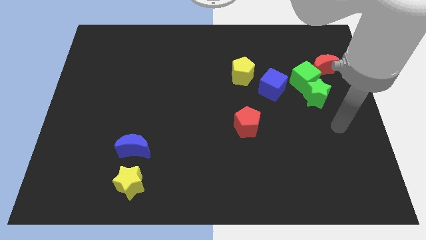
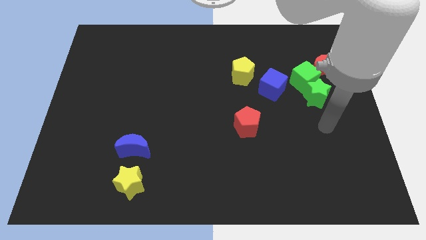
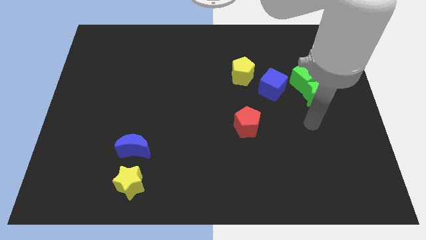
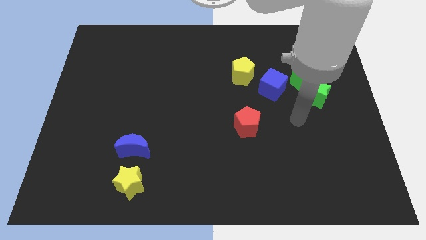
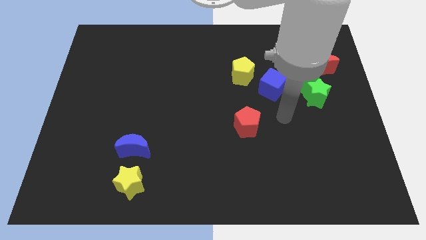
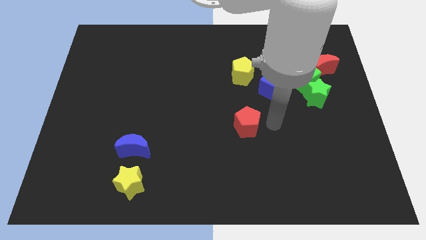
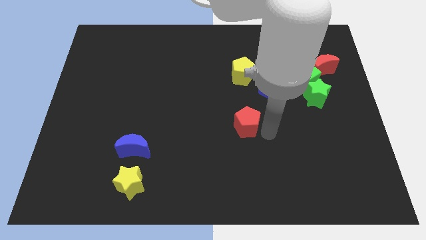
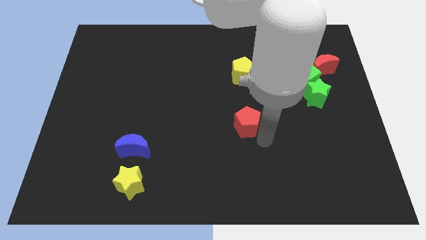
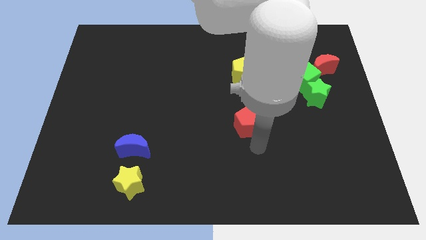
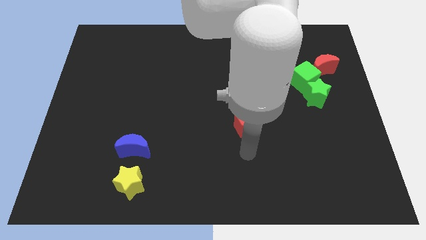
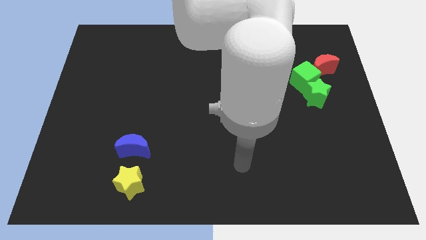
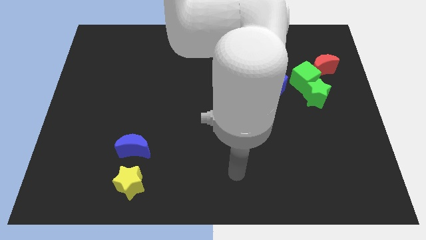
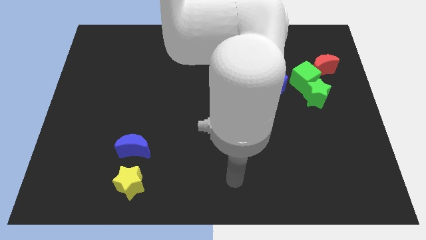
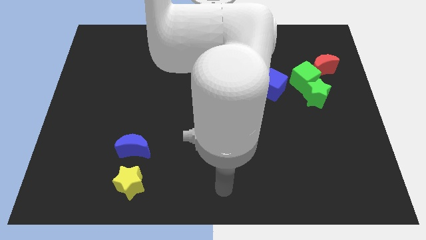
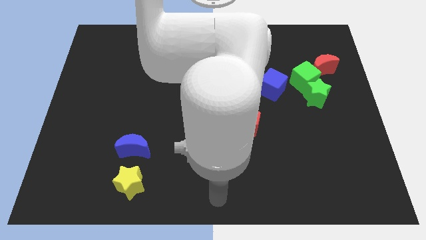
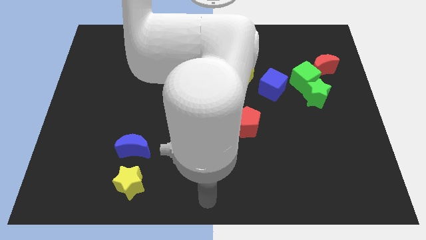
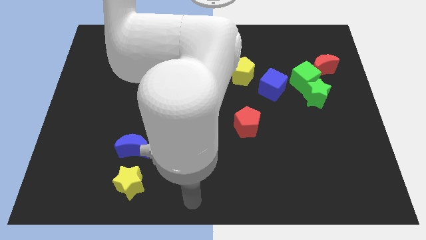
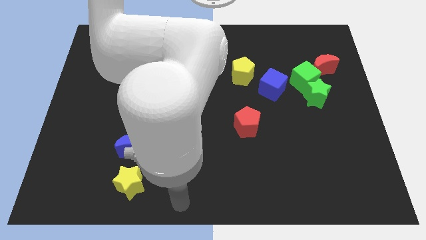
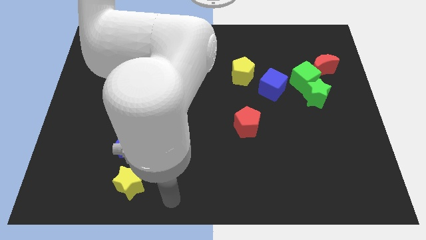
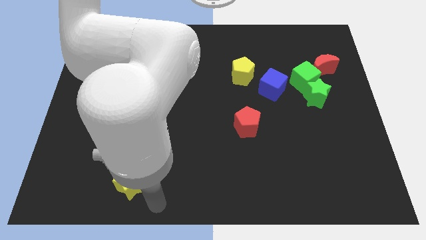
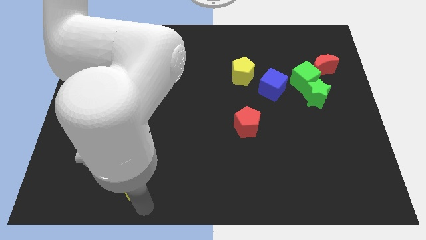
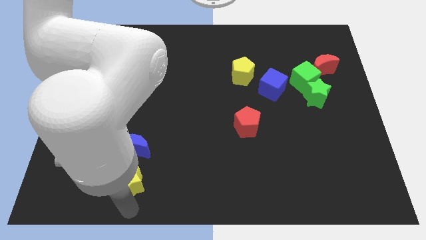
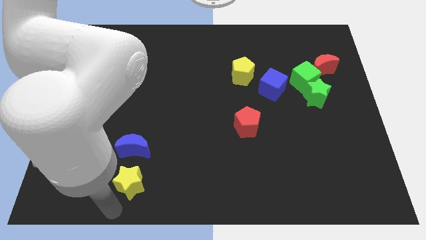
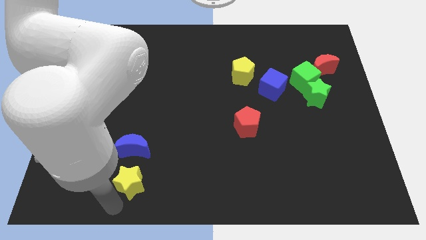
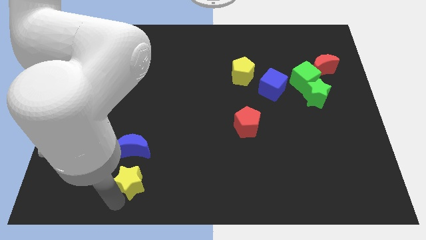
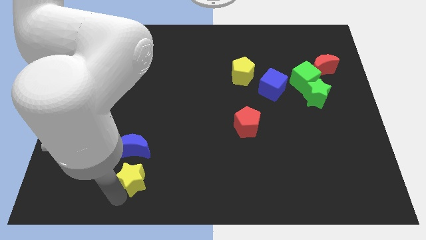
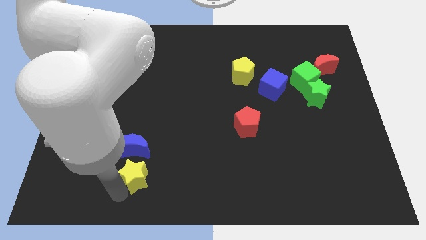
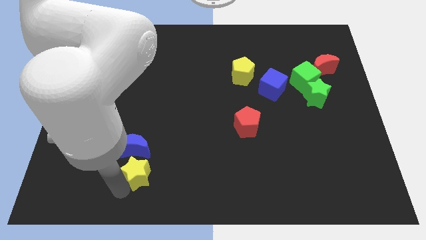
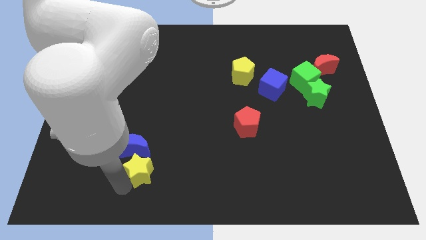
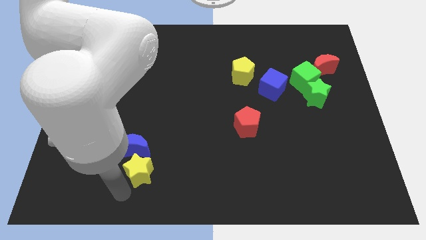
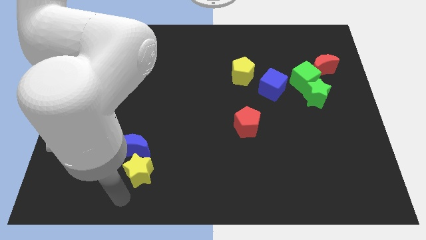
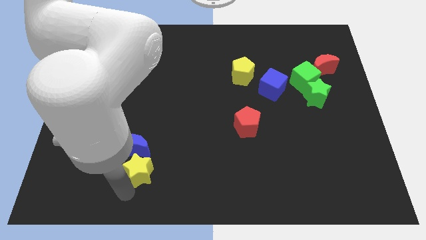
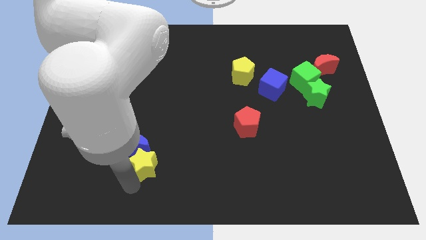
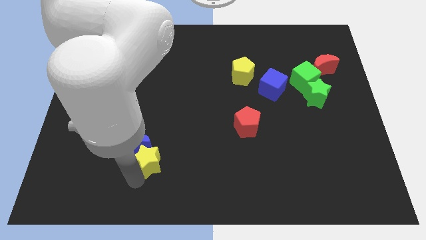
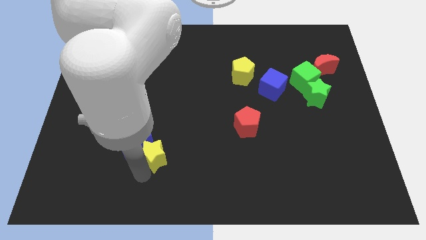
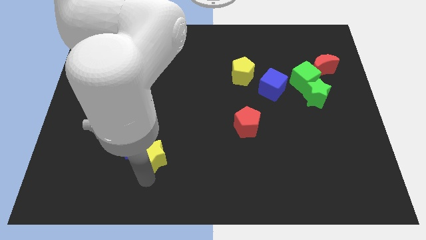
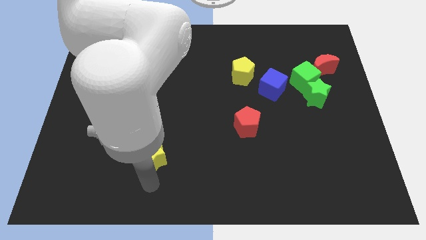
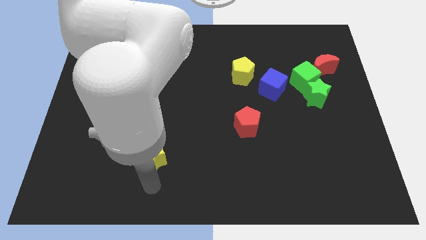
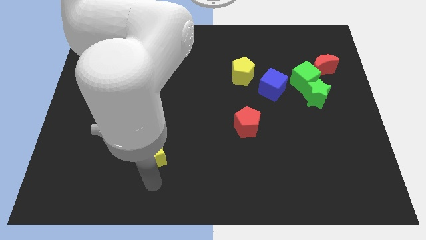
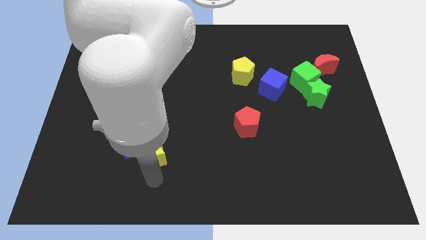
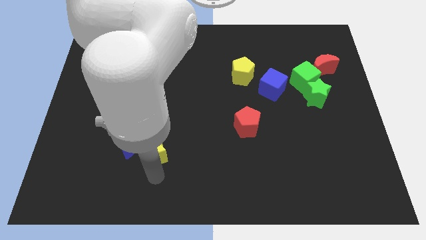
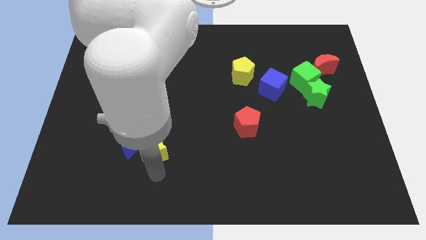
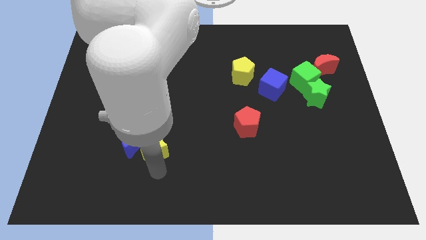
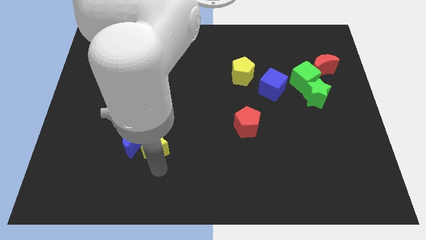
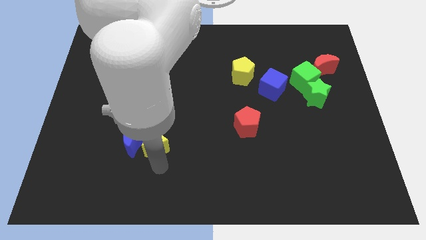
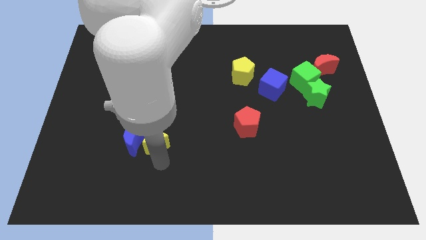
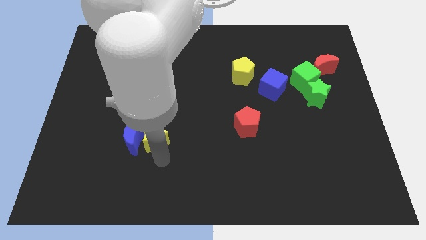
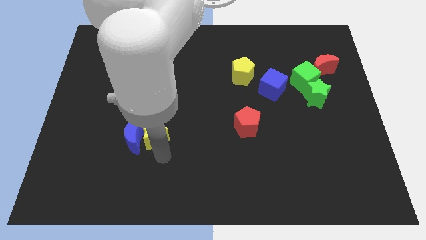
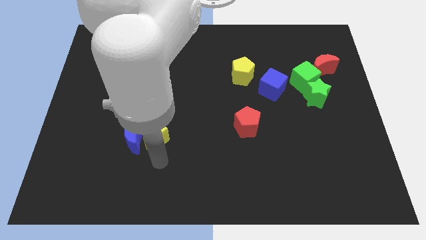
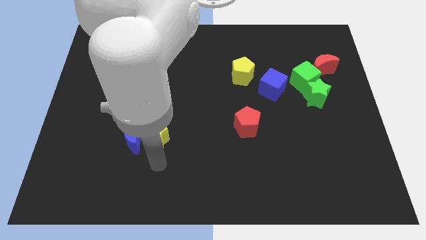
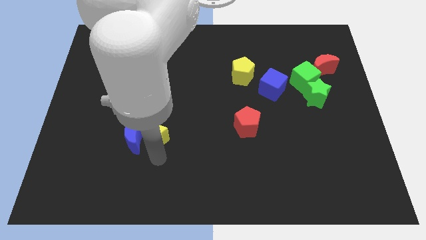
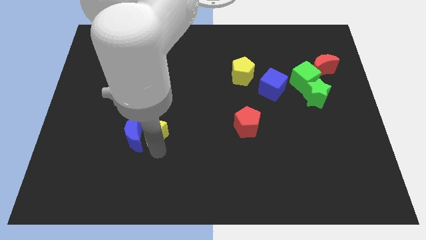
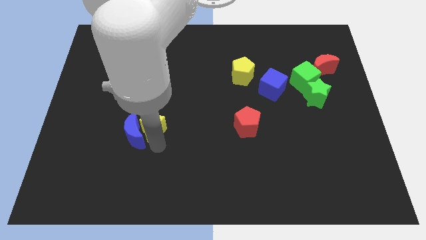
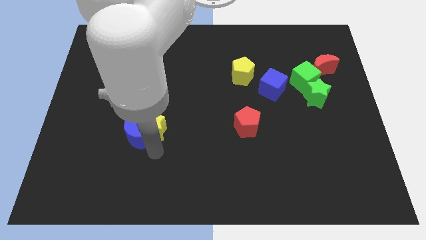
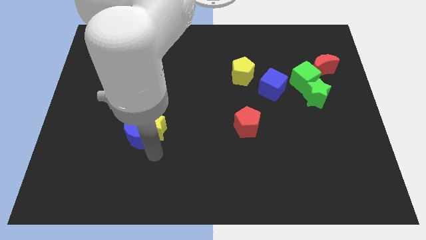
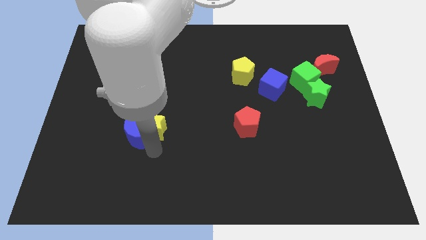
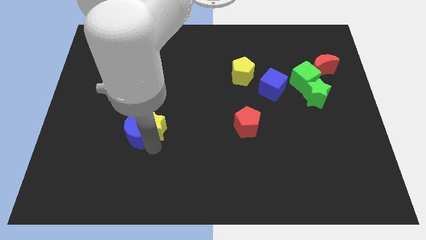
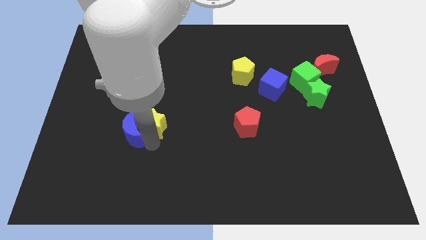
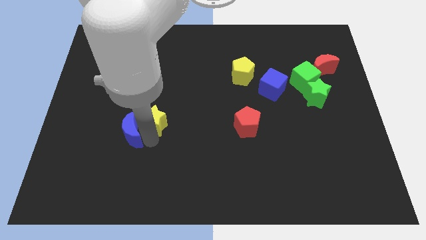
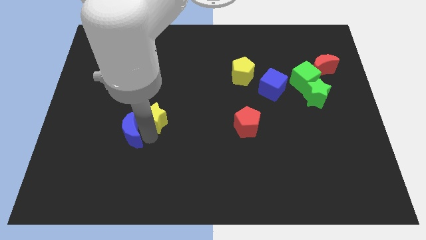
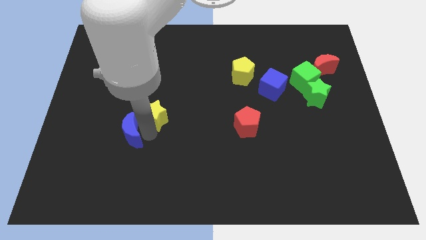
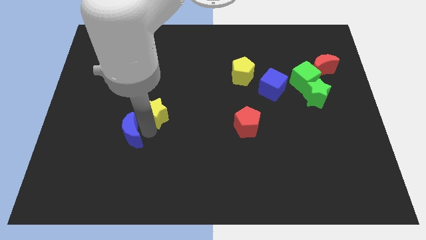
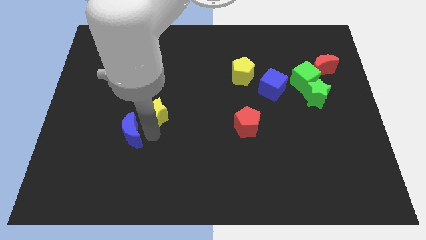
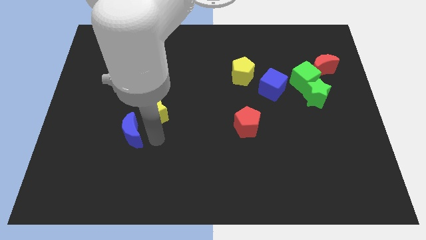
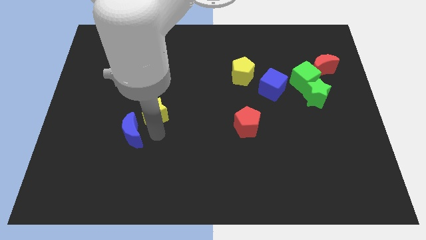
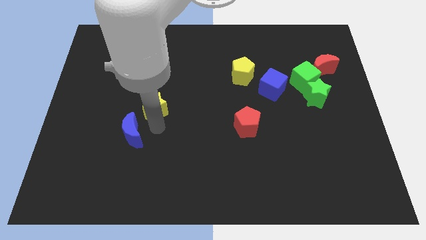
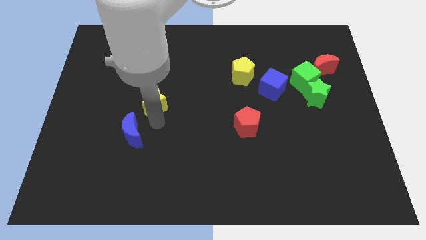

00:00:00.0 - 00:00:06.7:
slide the yellow star upwards

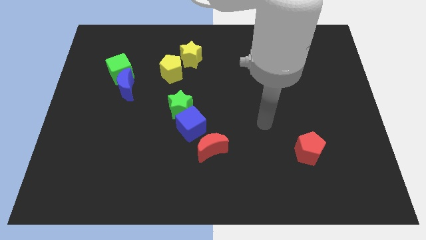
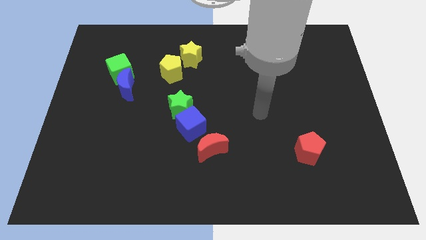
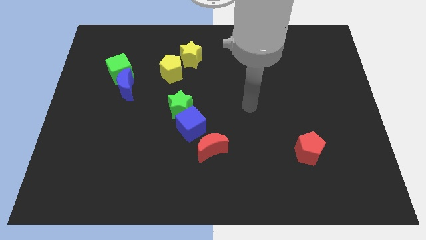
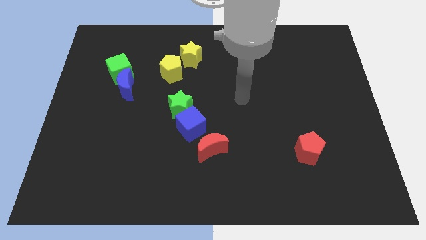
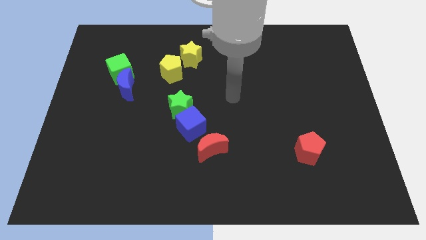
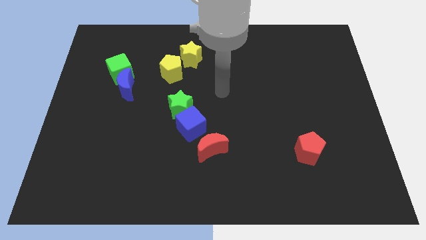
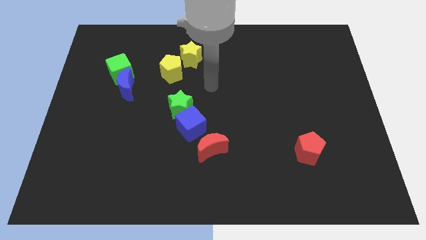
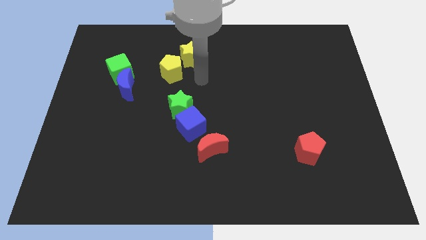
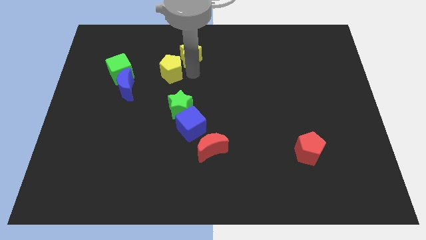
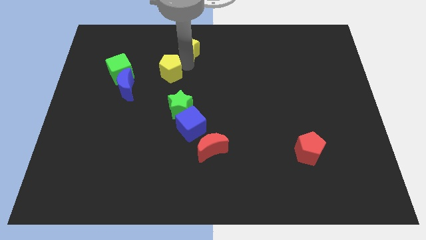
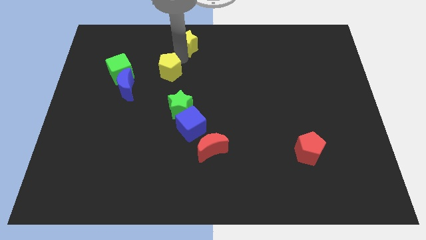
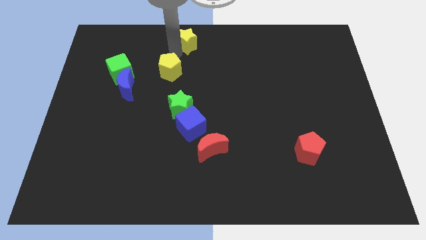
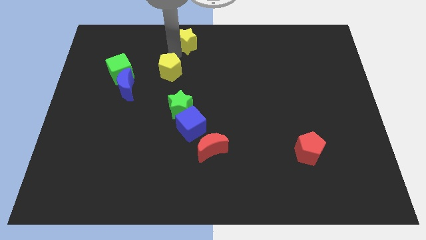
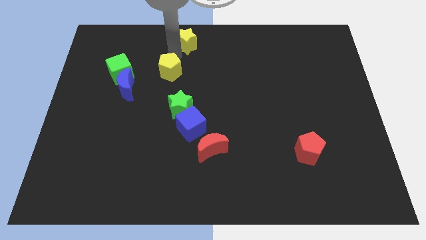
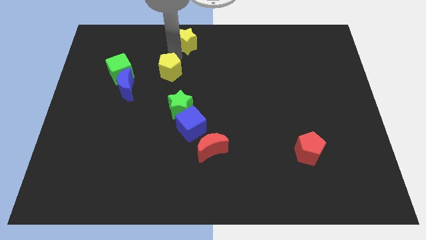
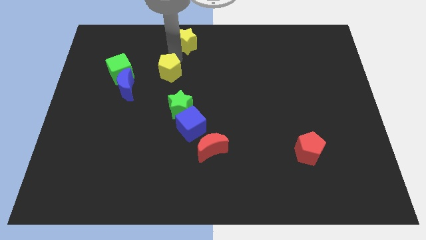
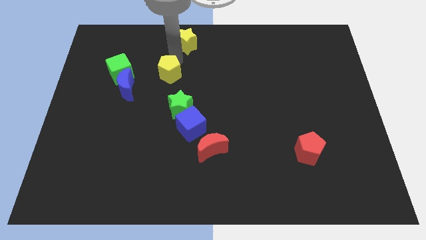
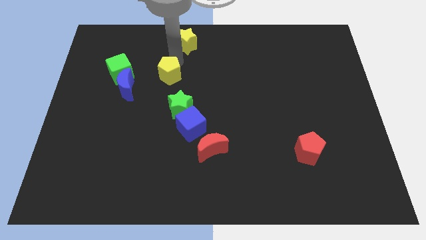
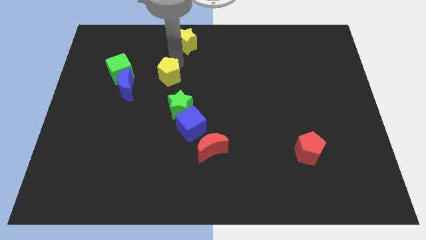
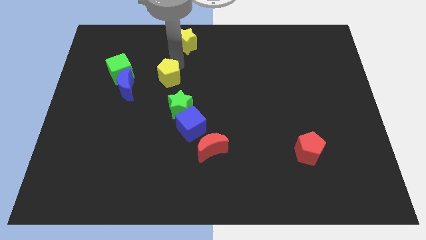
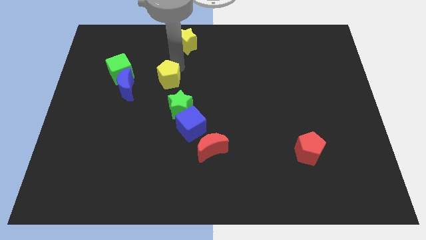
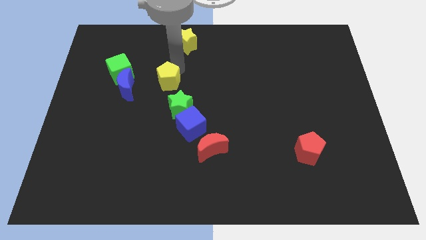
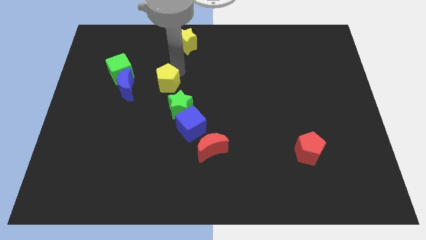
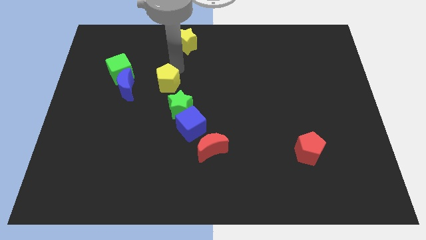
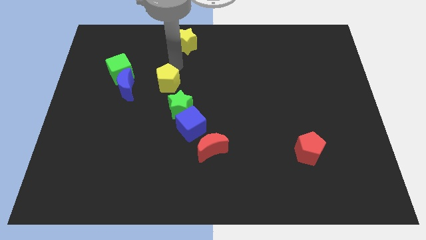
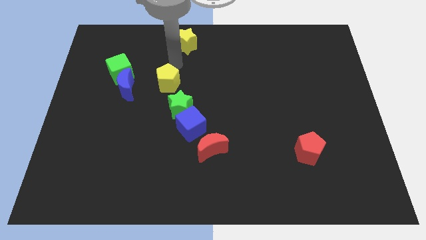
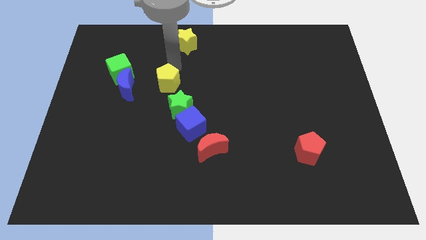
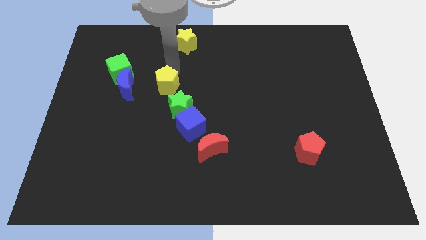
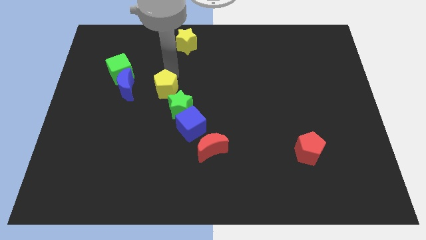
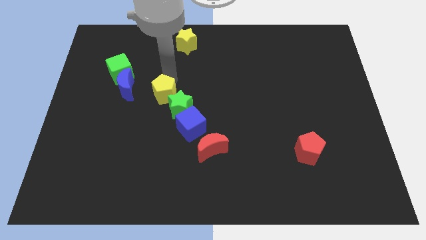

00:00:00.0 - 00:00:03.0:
move the yellow pentagon slightly downwards
